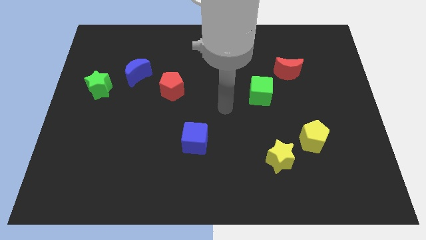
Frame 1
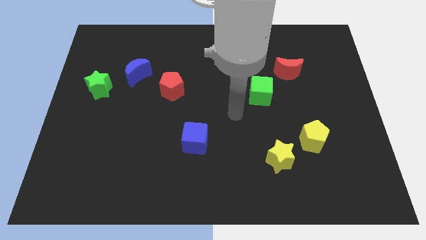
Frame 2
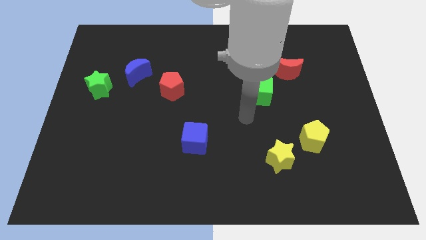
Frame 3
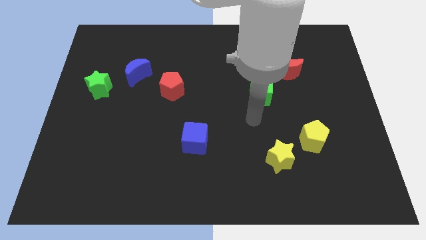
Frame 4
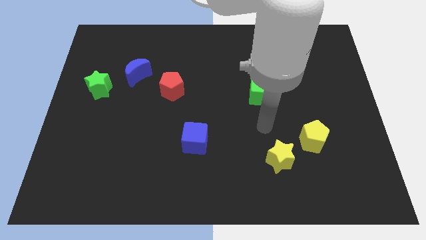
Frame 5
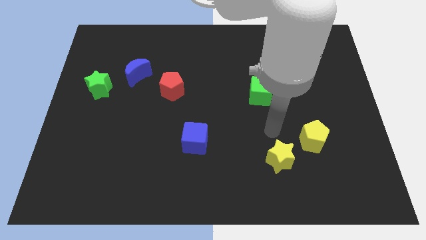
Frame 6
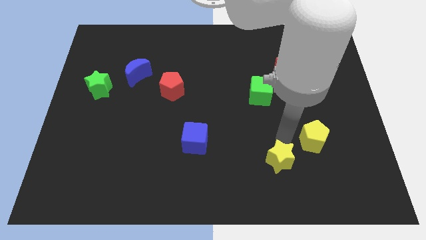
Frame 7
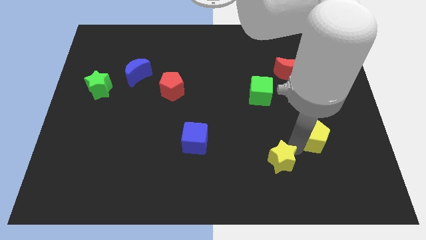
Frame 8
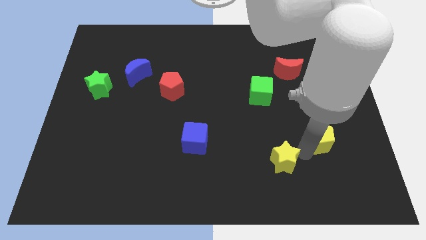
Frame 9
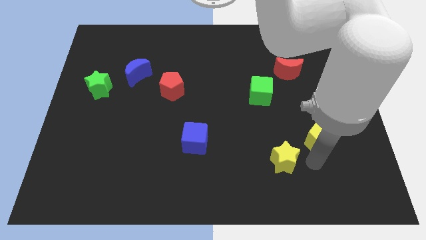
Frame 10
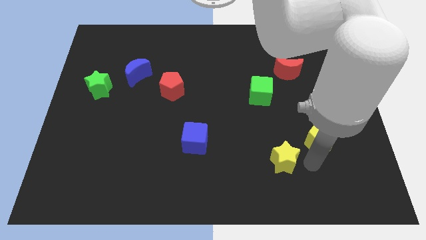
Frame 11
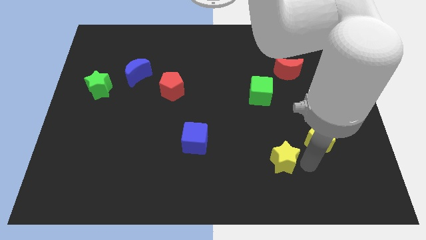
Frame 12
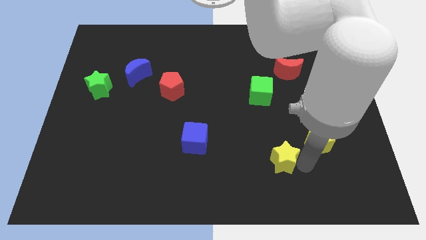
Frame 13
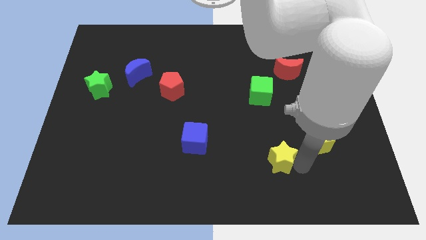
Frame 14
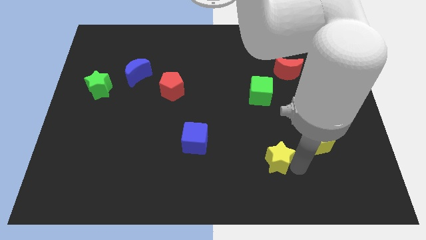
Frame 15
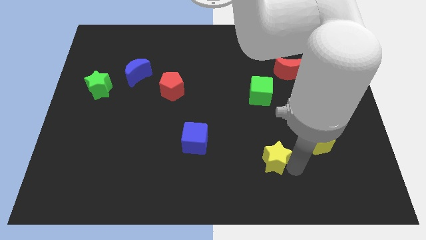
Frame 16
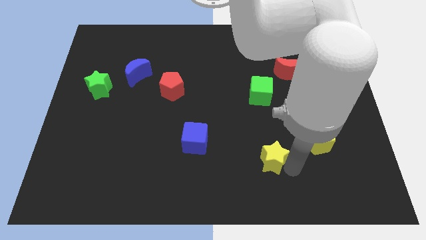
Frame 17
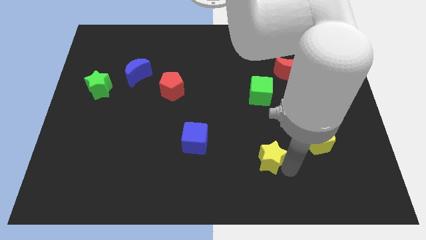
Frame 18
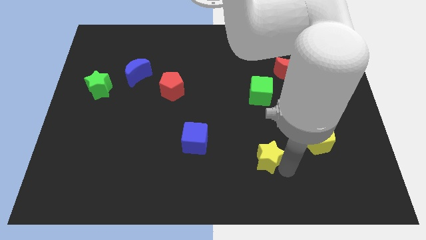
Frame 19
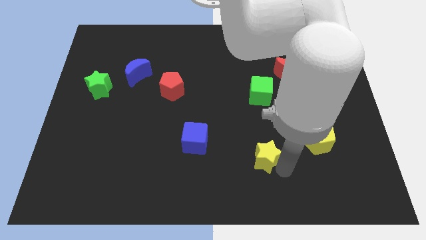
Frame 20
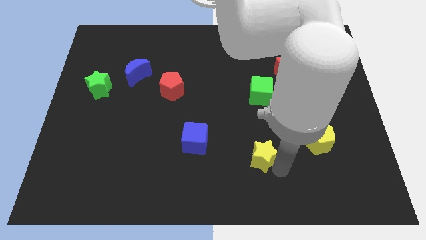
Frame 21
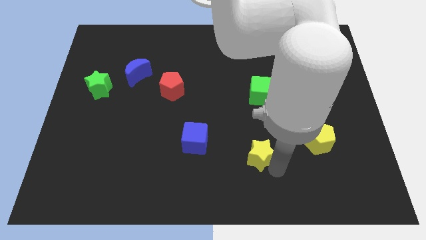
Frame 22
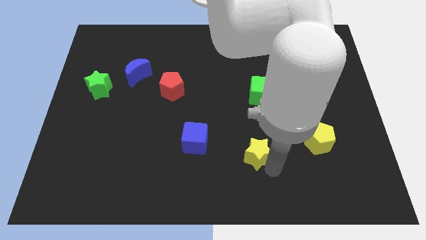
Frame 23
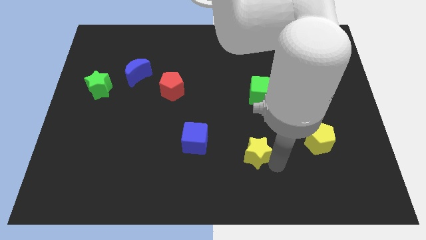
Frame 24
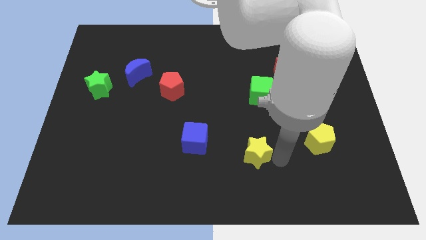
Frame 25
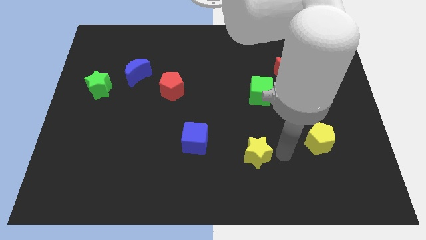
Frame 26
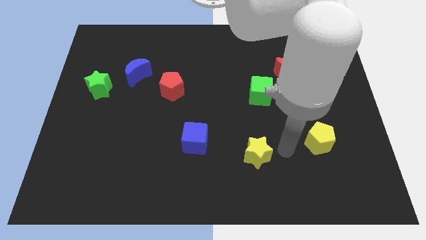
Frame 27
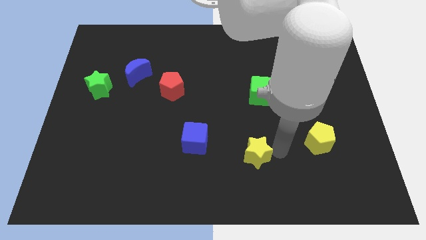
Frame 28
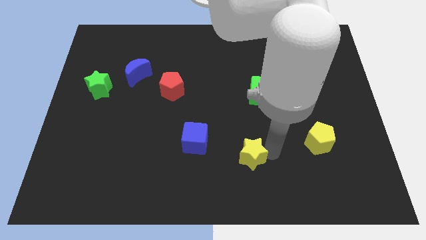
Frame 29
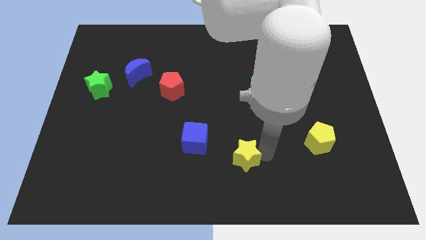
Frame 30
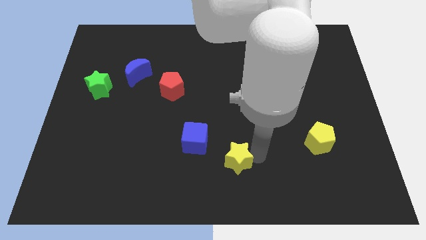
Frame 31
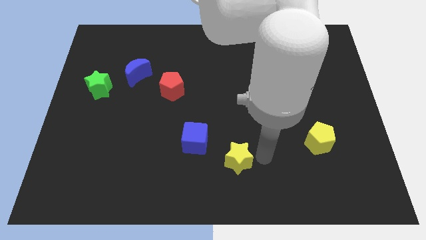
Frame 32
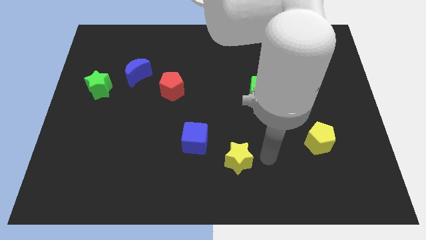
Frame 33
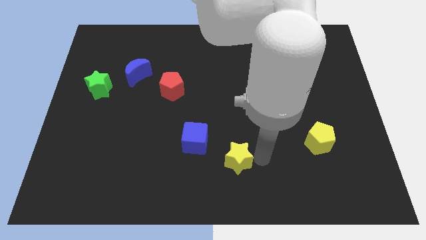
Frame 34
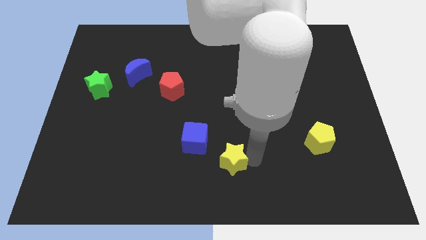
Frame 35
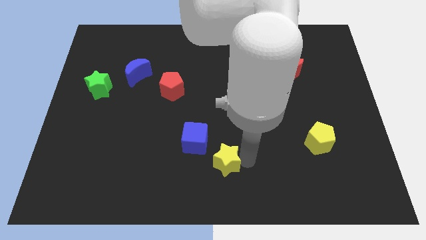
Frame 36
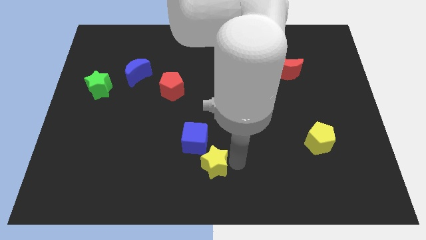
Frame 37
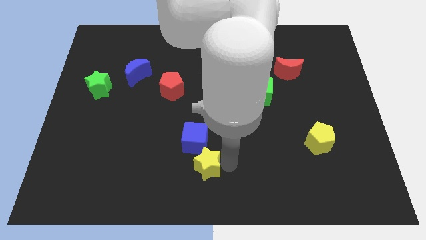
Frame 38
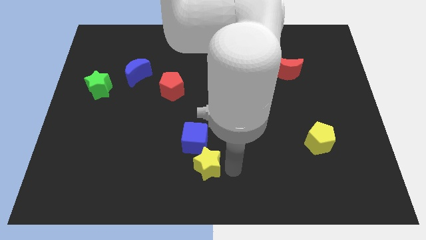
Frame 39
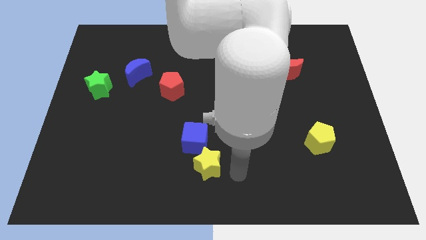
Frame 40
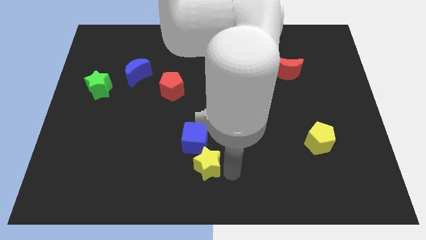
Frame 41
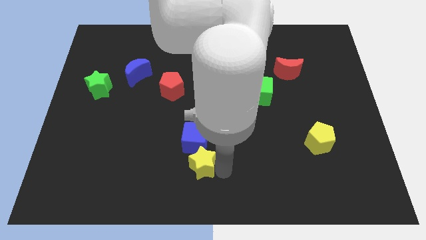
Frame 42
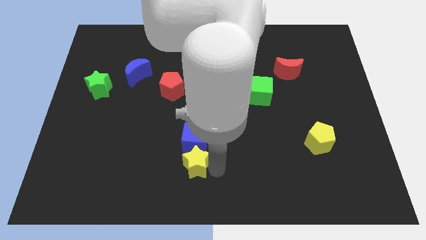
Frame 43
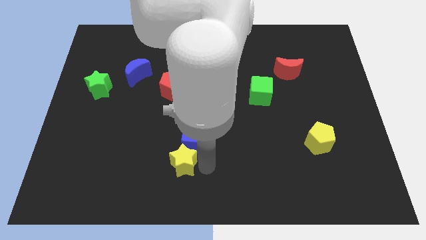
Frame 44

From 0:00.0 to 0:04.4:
move the yellow star to the left

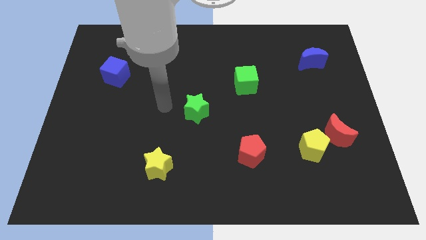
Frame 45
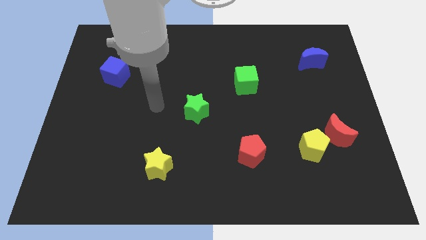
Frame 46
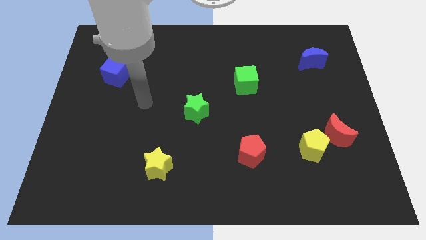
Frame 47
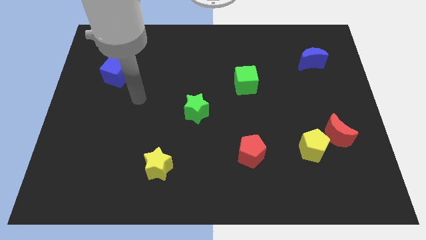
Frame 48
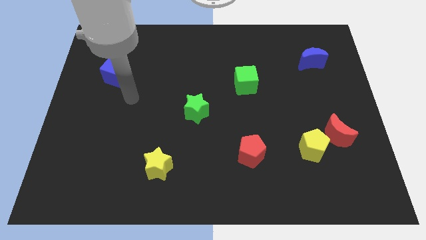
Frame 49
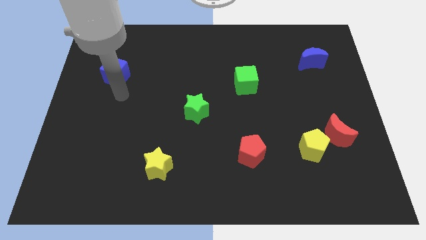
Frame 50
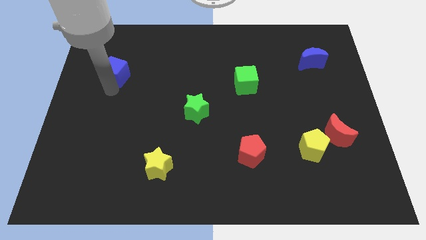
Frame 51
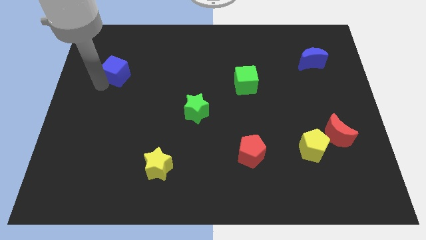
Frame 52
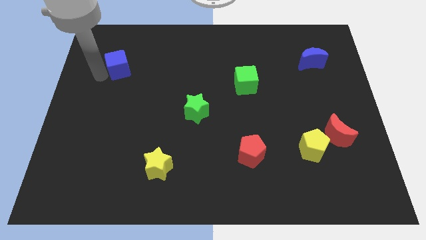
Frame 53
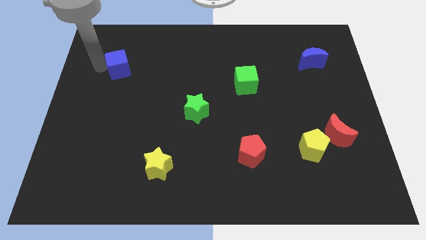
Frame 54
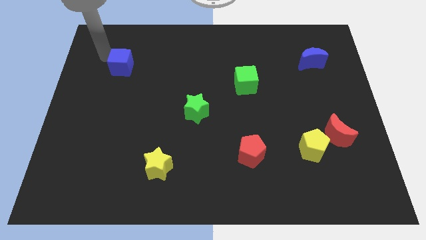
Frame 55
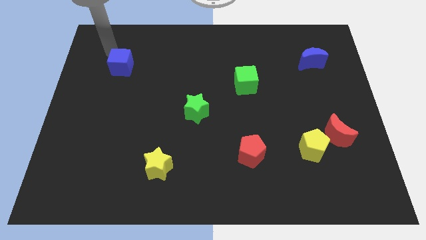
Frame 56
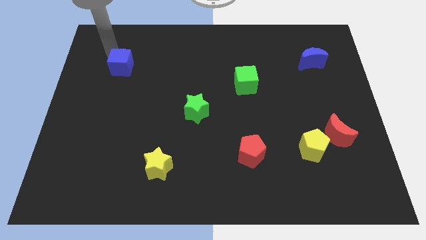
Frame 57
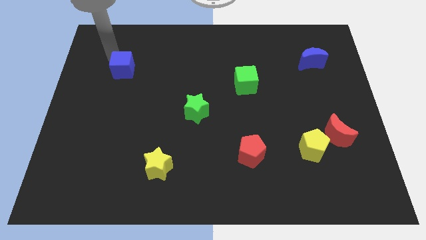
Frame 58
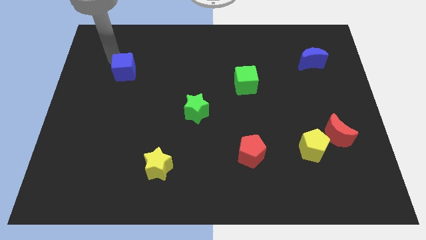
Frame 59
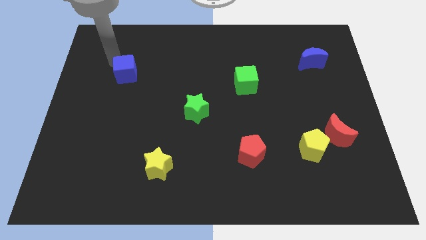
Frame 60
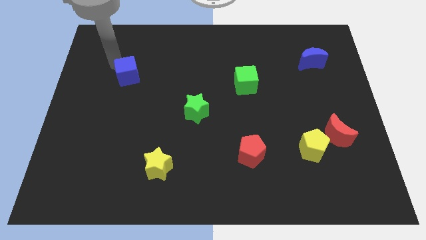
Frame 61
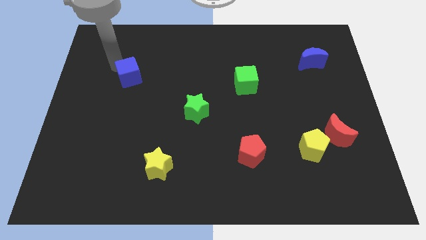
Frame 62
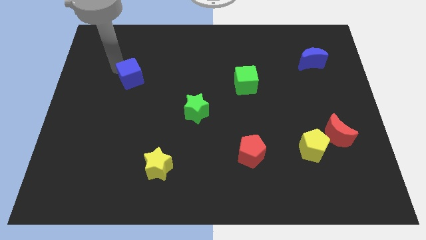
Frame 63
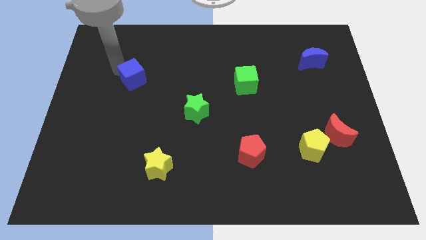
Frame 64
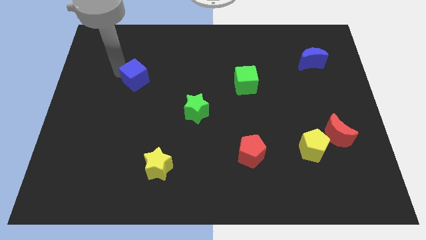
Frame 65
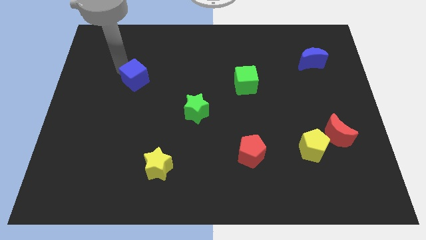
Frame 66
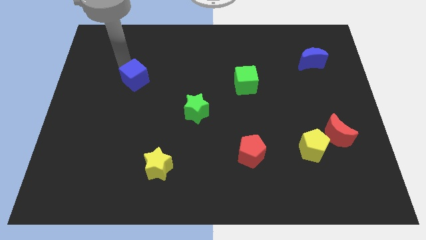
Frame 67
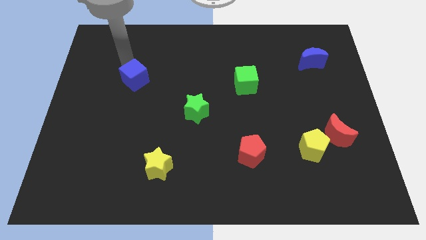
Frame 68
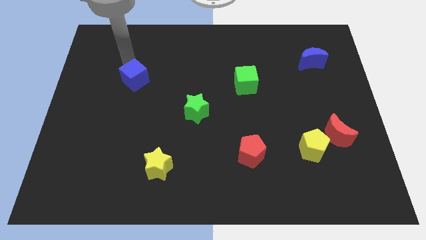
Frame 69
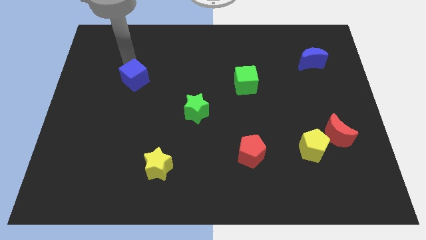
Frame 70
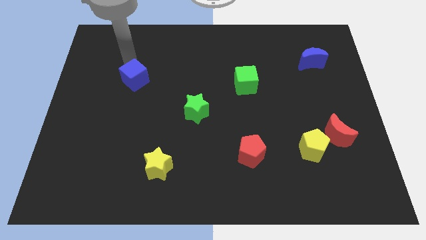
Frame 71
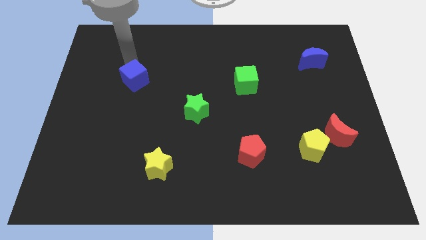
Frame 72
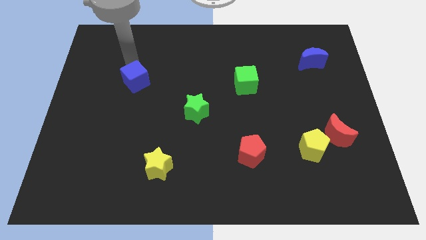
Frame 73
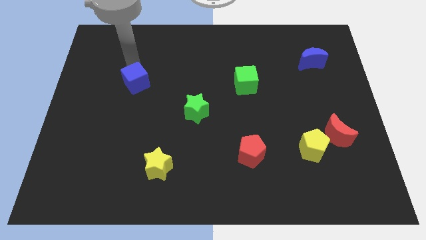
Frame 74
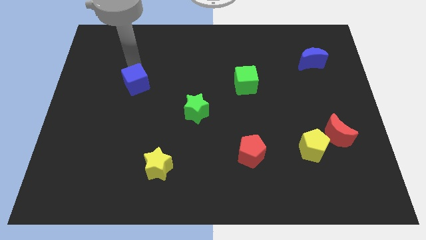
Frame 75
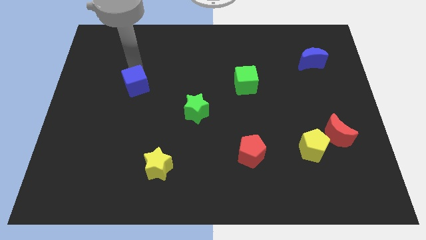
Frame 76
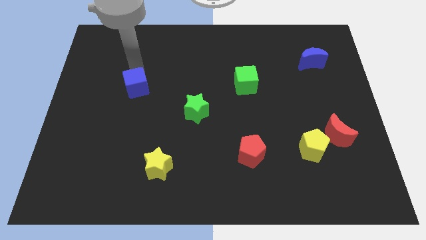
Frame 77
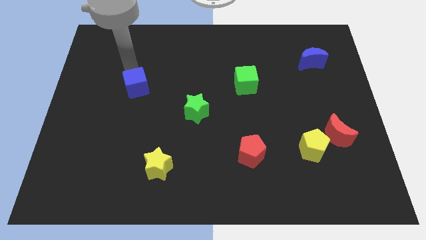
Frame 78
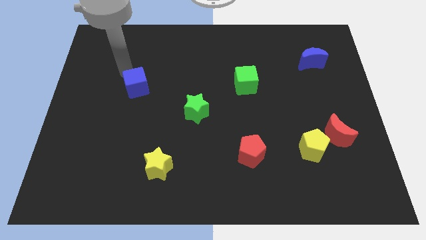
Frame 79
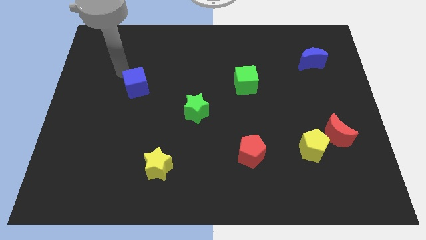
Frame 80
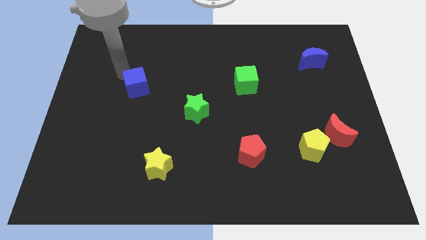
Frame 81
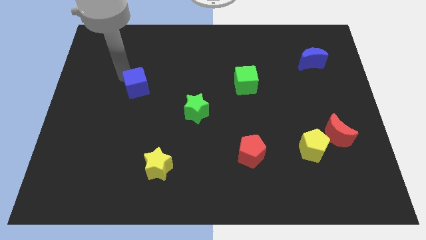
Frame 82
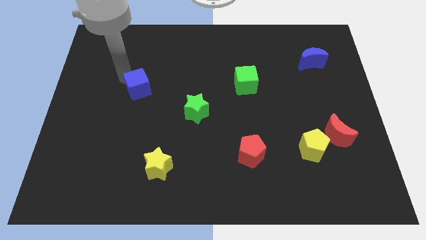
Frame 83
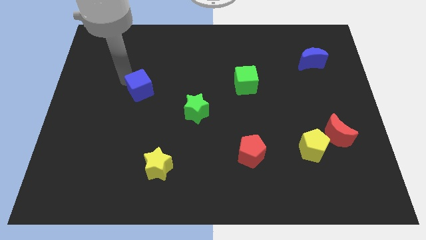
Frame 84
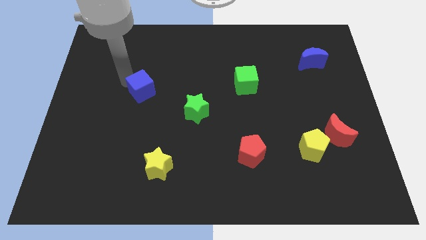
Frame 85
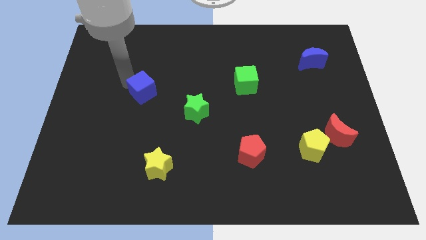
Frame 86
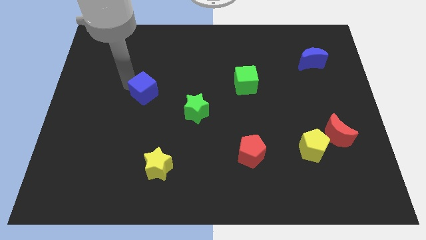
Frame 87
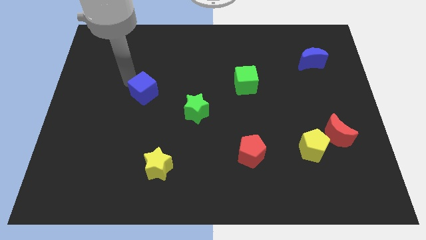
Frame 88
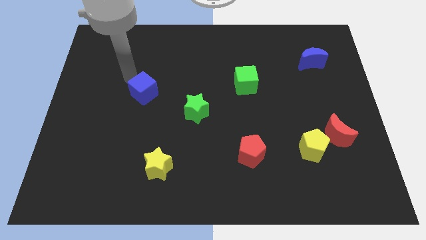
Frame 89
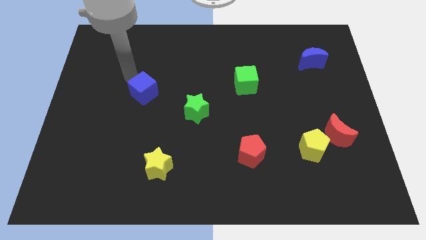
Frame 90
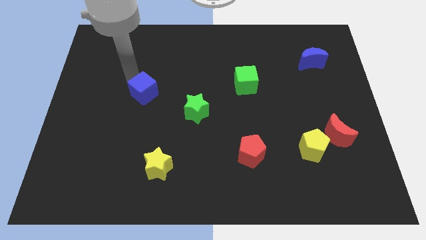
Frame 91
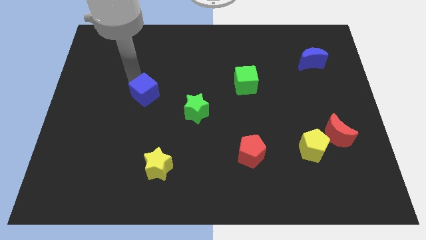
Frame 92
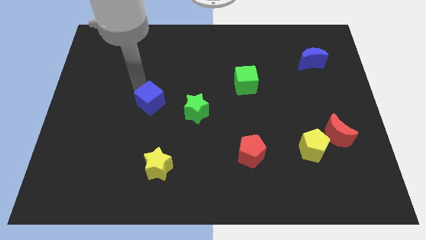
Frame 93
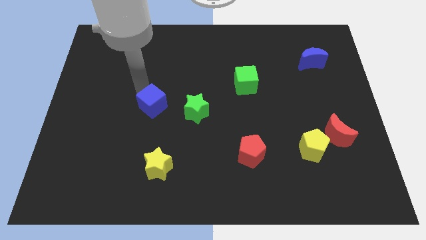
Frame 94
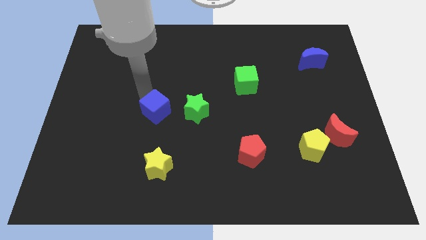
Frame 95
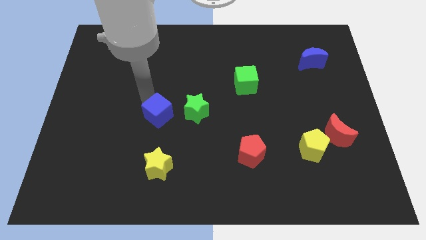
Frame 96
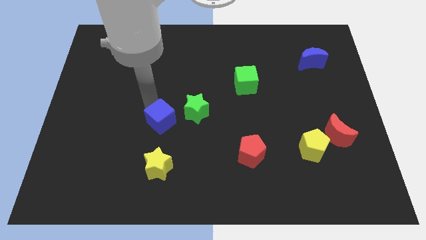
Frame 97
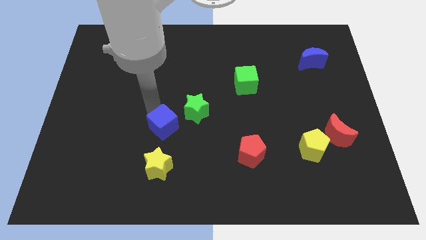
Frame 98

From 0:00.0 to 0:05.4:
push the blue cube downwards and to the right diagonally
